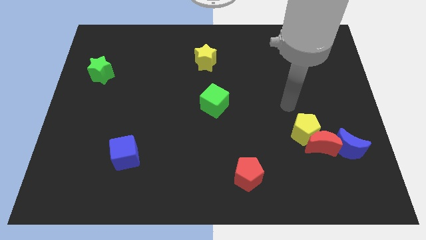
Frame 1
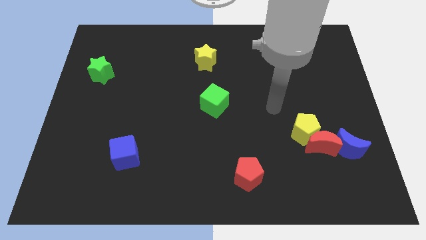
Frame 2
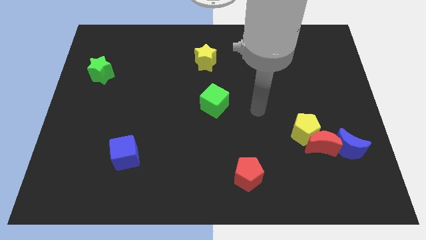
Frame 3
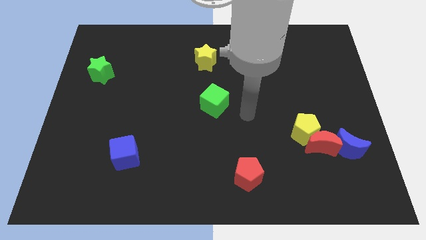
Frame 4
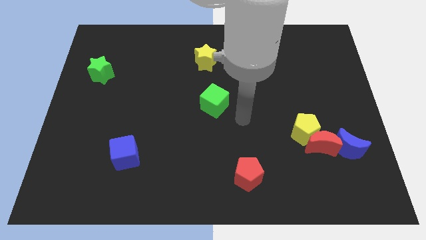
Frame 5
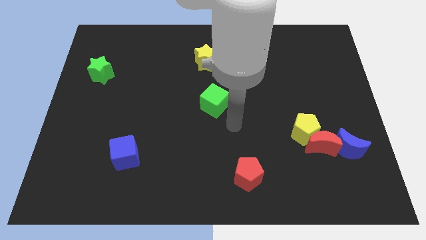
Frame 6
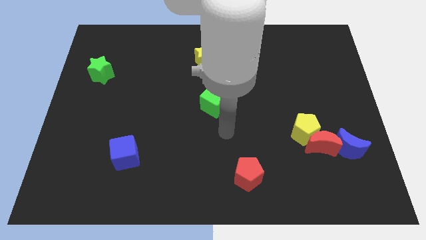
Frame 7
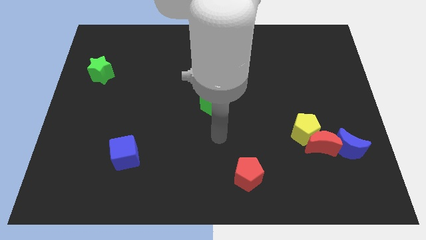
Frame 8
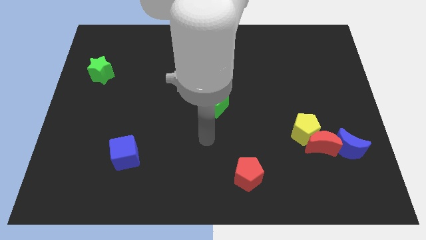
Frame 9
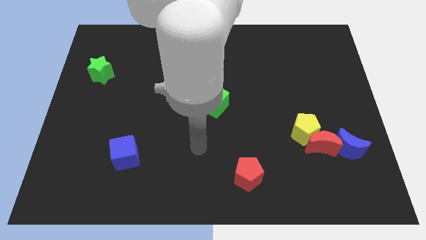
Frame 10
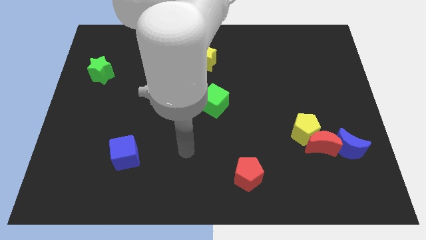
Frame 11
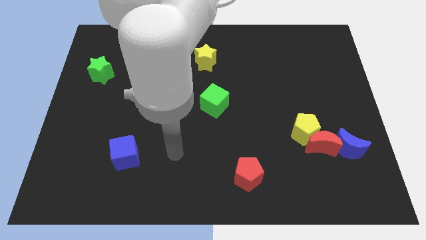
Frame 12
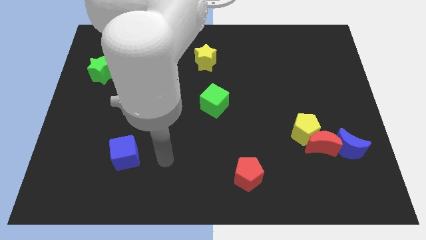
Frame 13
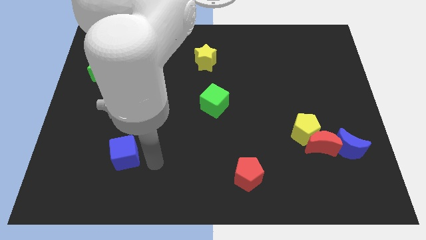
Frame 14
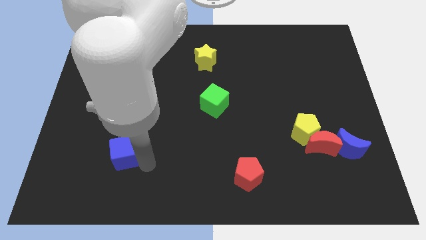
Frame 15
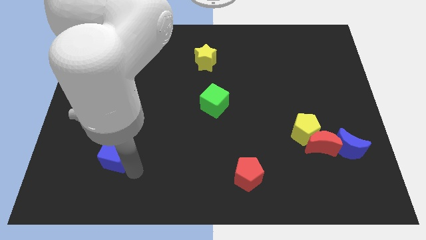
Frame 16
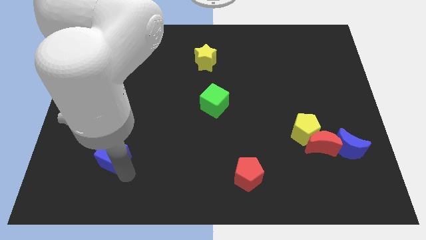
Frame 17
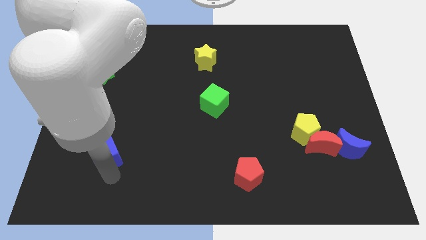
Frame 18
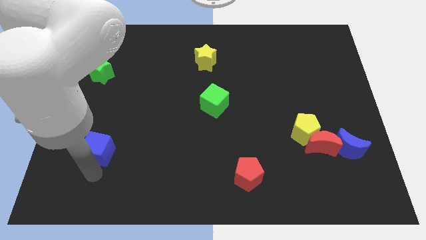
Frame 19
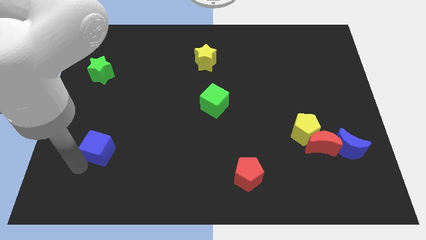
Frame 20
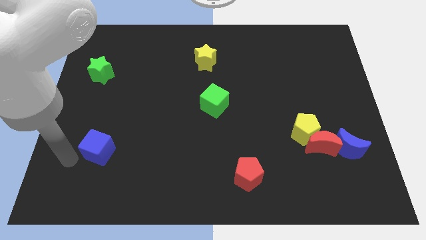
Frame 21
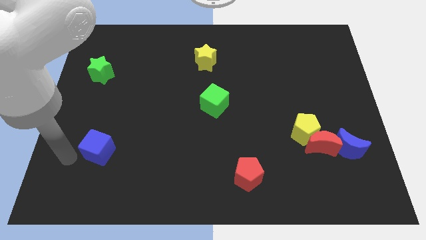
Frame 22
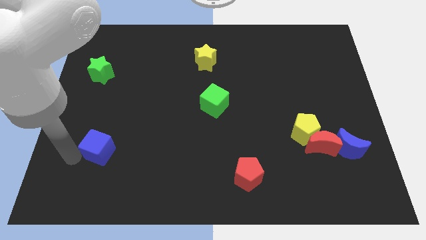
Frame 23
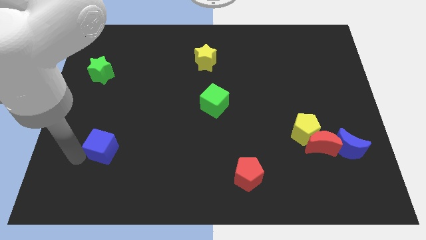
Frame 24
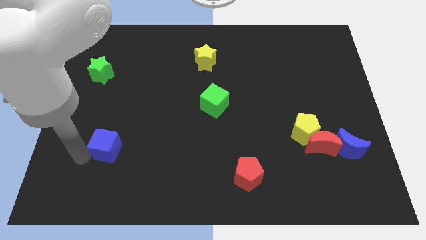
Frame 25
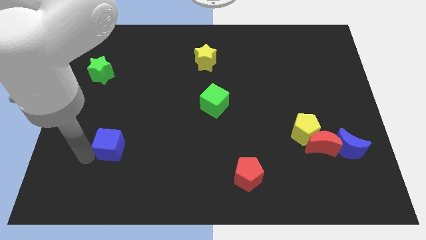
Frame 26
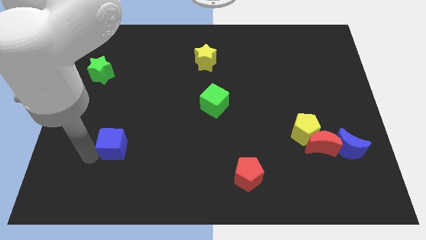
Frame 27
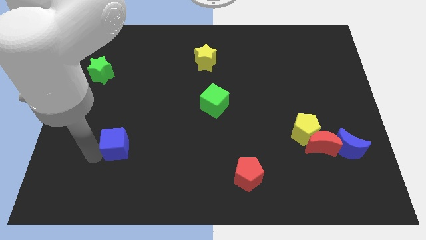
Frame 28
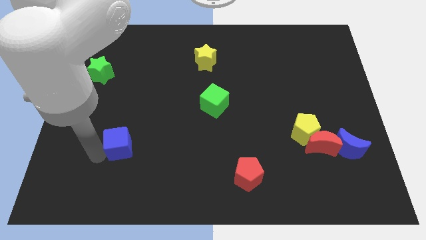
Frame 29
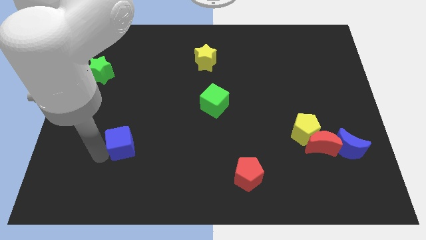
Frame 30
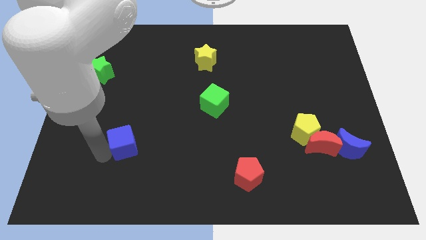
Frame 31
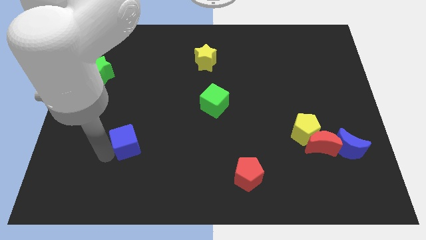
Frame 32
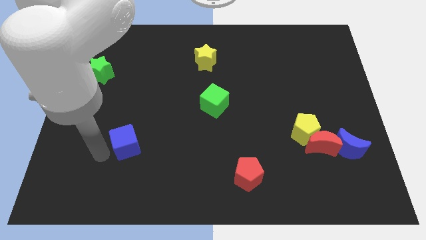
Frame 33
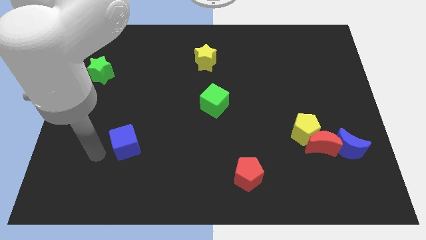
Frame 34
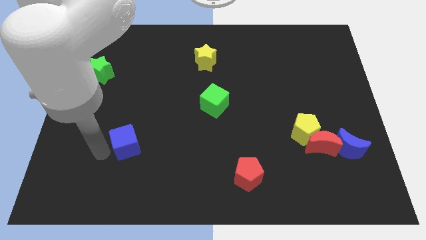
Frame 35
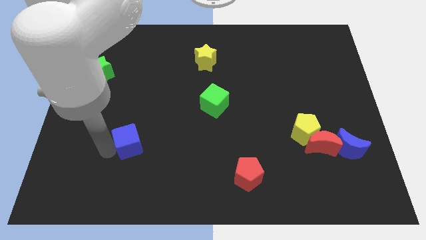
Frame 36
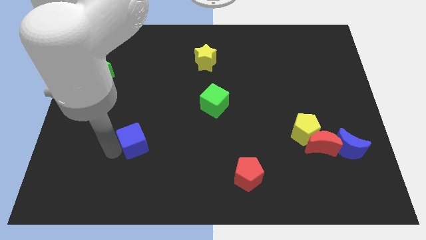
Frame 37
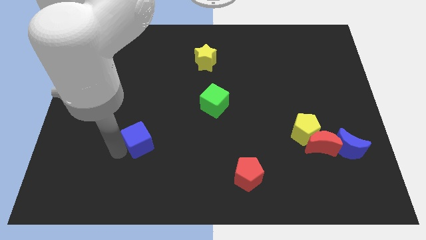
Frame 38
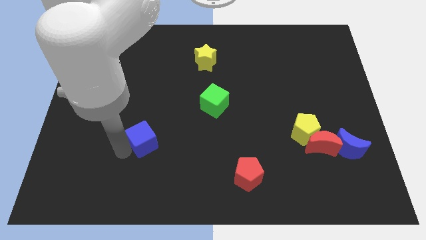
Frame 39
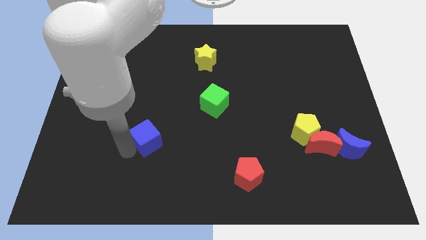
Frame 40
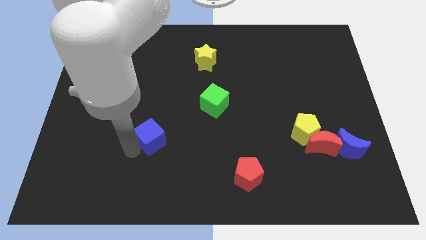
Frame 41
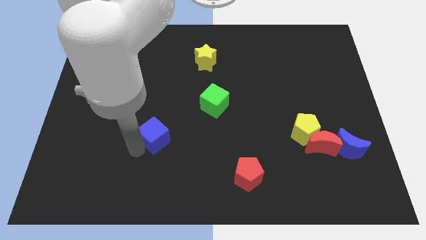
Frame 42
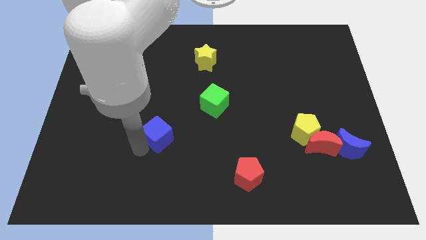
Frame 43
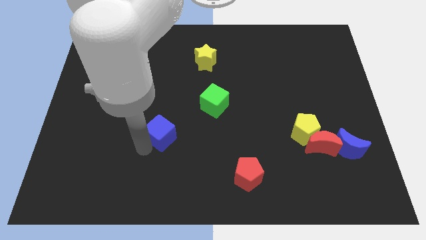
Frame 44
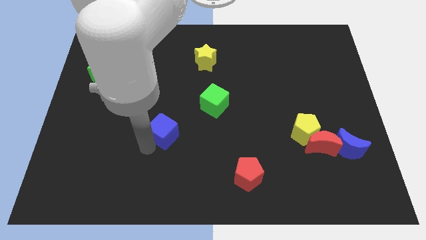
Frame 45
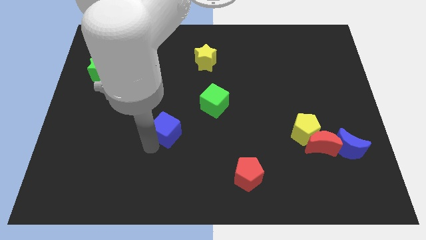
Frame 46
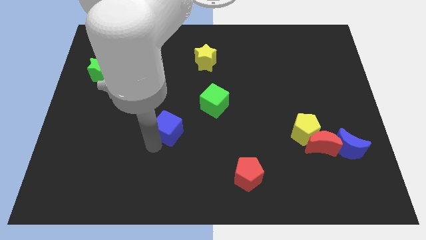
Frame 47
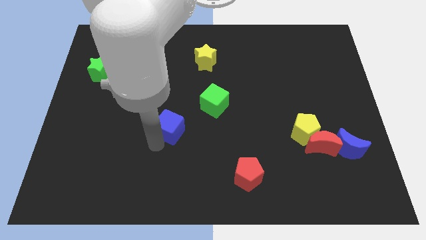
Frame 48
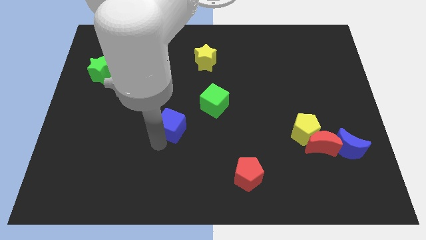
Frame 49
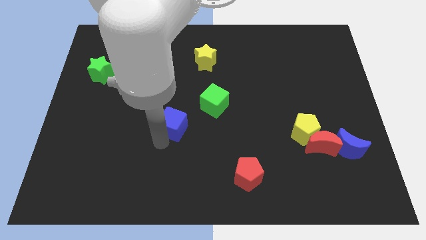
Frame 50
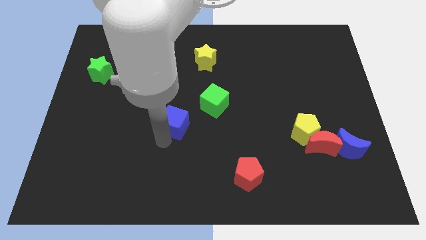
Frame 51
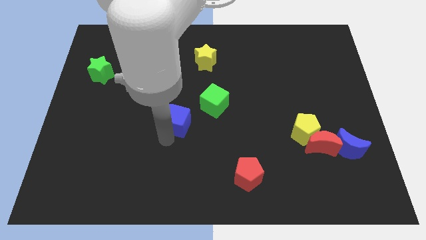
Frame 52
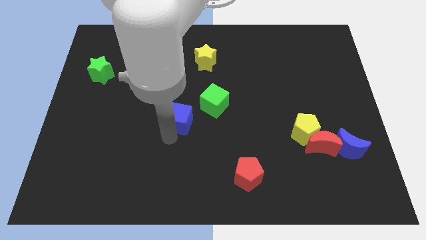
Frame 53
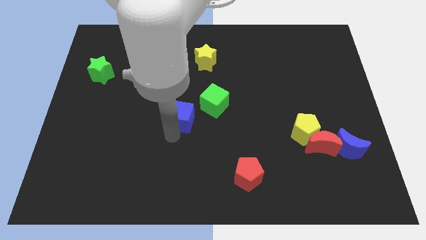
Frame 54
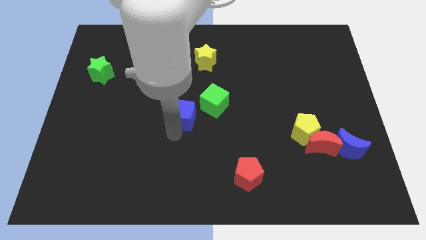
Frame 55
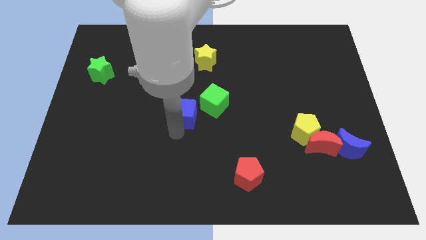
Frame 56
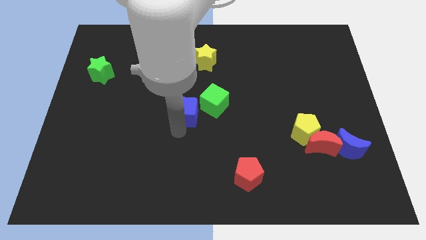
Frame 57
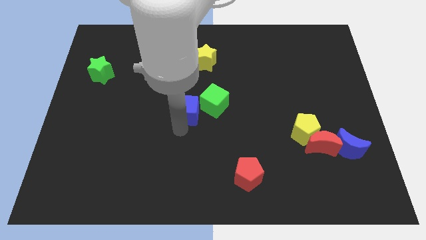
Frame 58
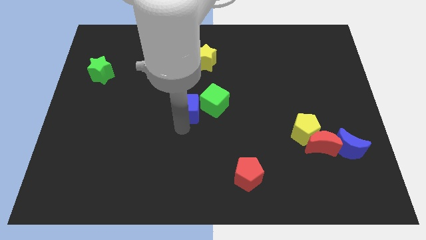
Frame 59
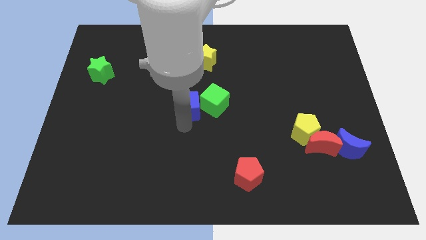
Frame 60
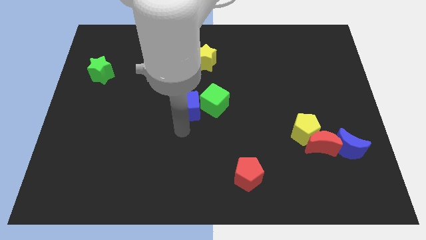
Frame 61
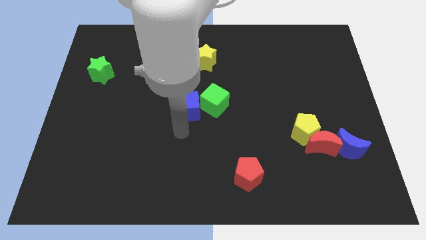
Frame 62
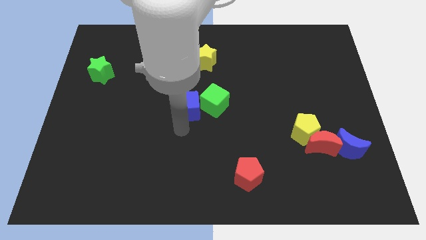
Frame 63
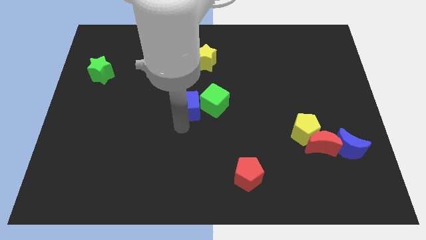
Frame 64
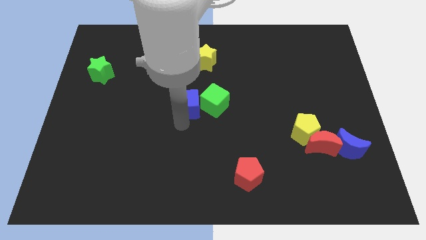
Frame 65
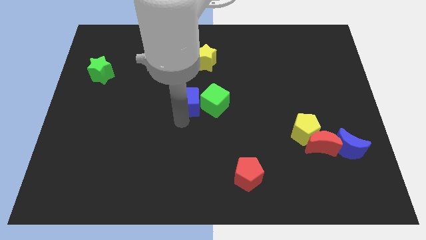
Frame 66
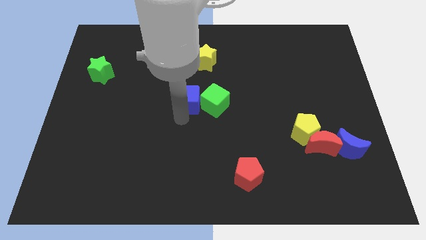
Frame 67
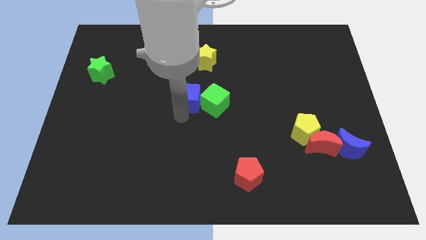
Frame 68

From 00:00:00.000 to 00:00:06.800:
slide the blue cube upwards and to the right

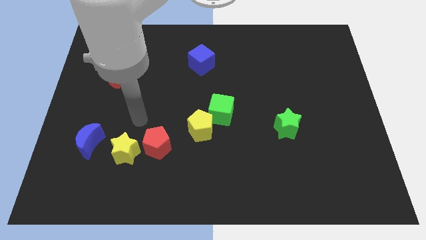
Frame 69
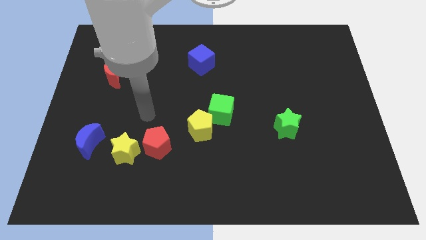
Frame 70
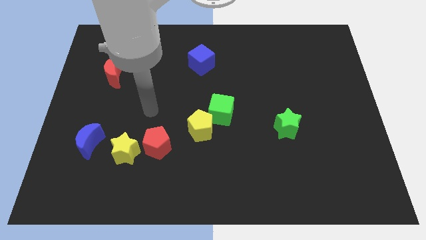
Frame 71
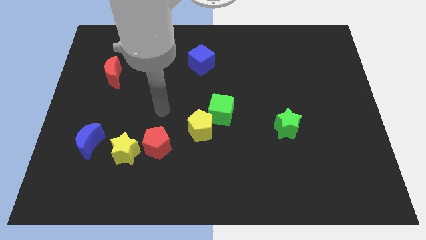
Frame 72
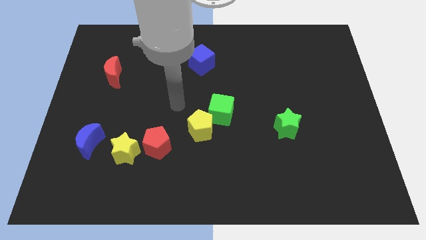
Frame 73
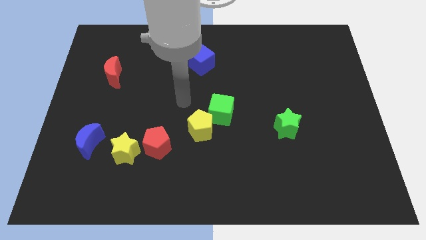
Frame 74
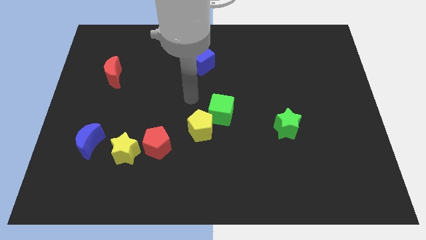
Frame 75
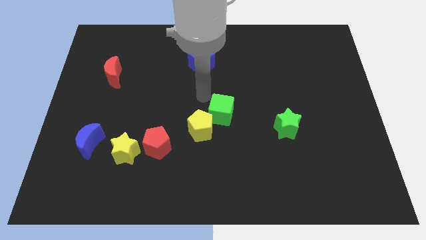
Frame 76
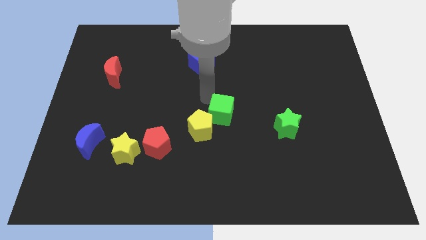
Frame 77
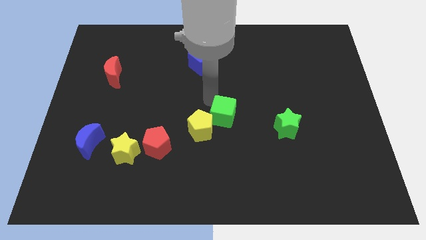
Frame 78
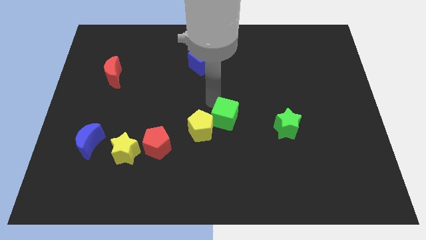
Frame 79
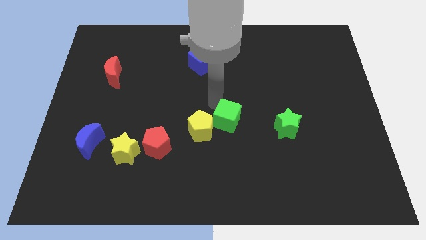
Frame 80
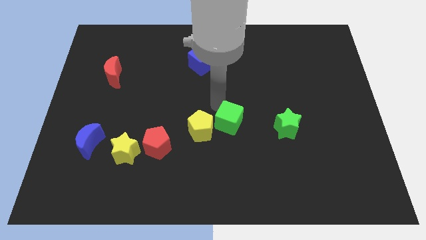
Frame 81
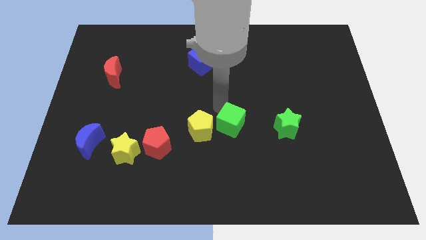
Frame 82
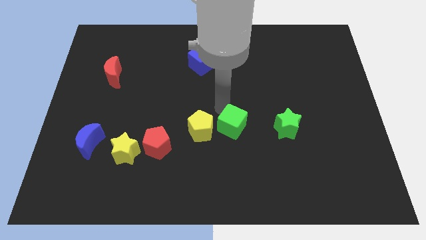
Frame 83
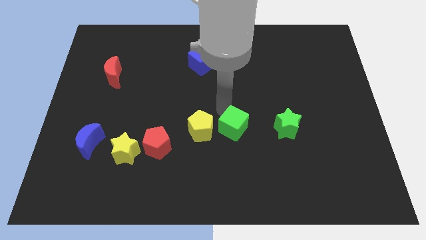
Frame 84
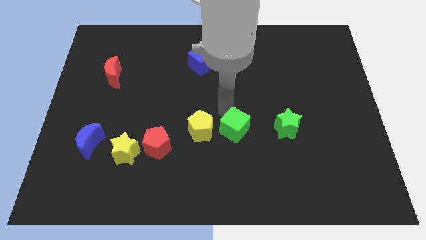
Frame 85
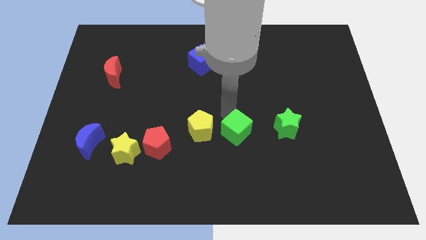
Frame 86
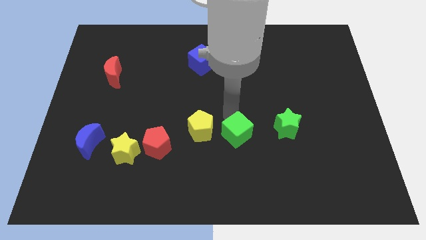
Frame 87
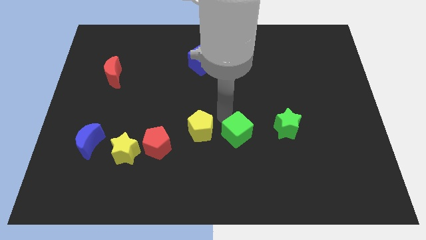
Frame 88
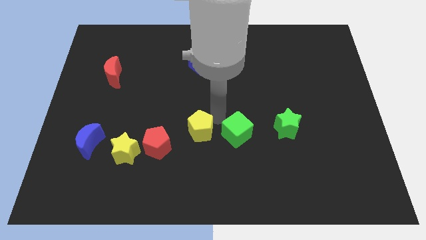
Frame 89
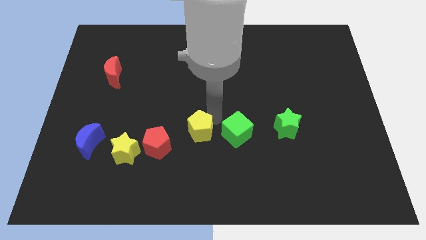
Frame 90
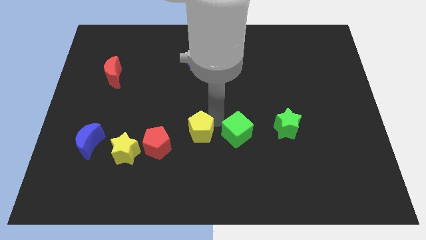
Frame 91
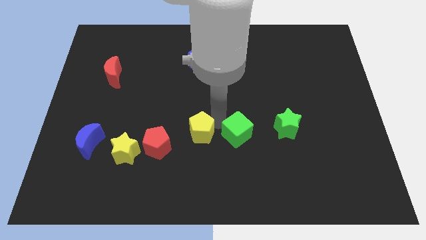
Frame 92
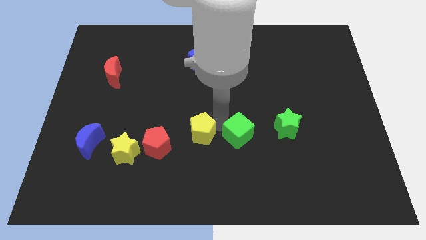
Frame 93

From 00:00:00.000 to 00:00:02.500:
slightly slide the green cube downwards and right
